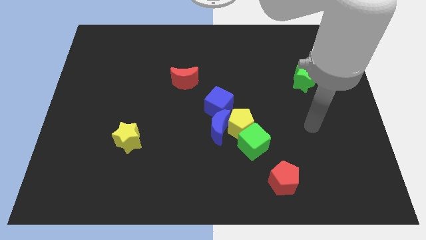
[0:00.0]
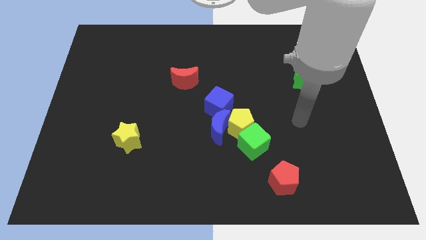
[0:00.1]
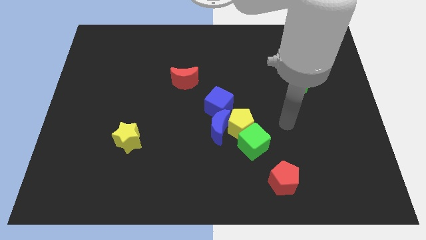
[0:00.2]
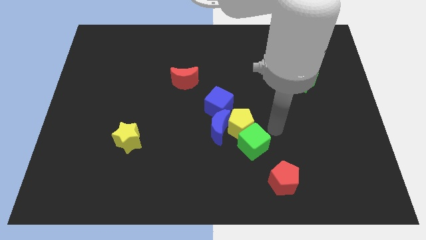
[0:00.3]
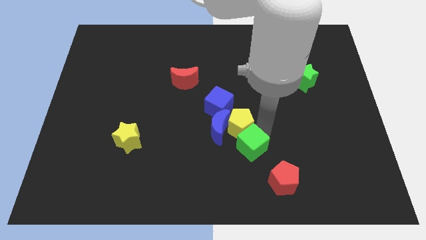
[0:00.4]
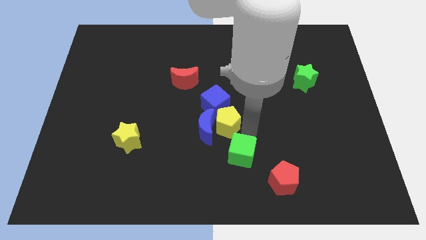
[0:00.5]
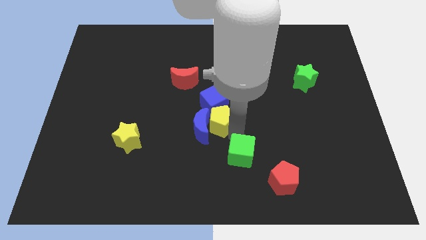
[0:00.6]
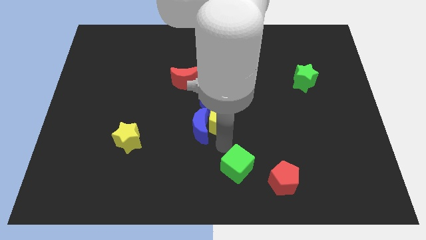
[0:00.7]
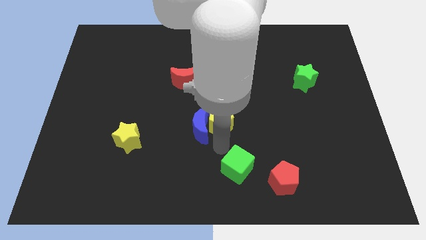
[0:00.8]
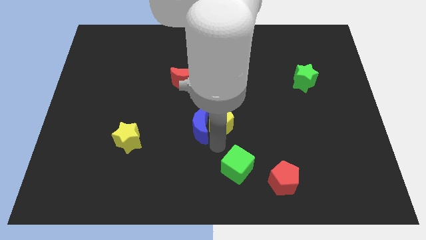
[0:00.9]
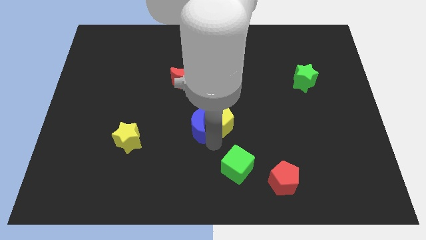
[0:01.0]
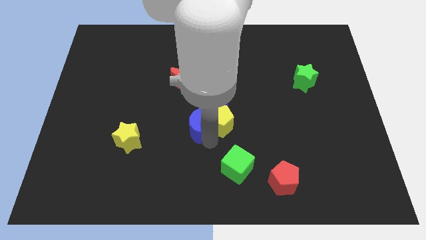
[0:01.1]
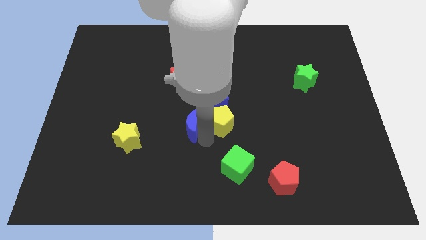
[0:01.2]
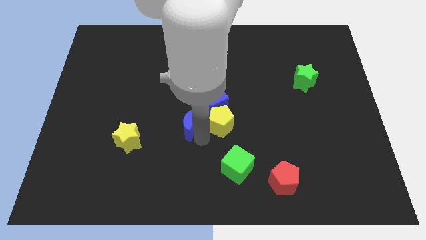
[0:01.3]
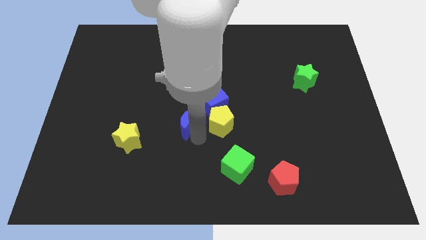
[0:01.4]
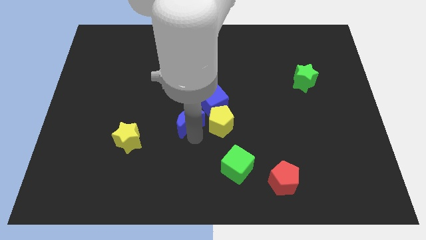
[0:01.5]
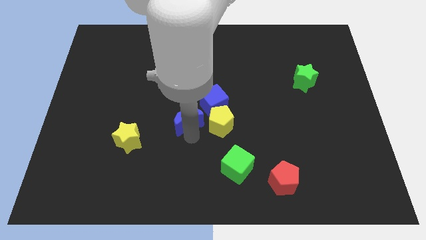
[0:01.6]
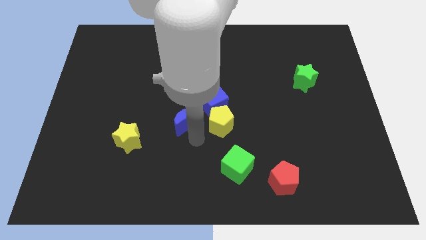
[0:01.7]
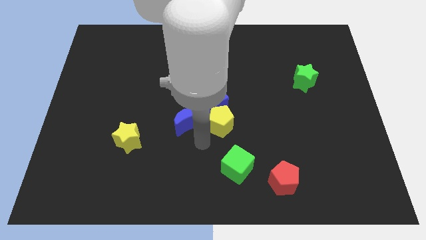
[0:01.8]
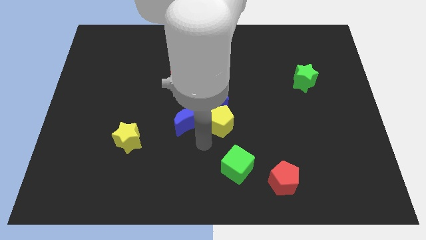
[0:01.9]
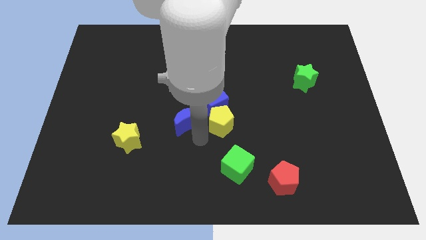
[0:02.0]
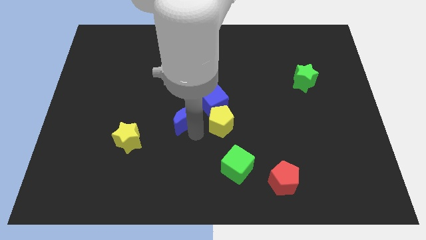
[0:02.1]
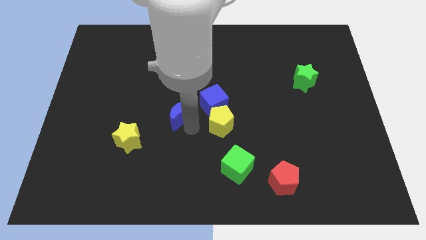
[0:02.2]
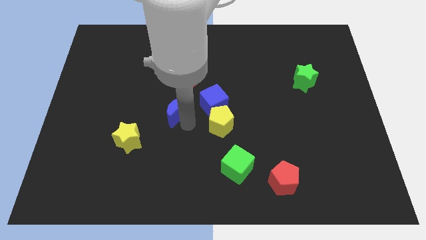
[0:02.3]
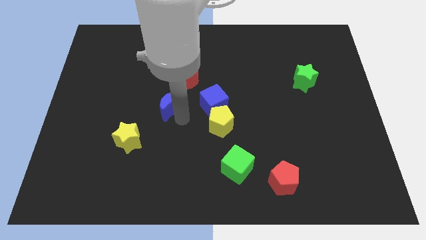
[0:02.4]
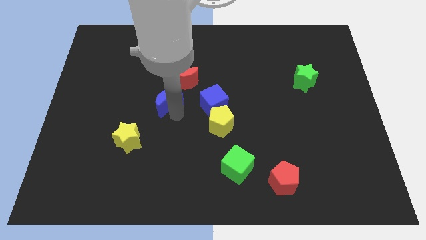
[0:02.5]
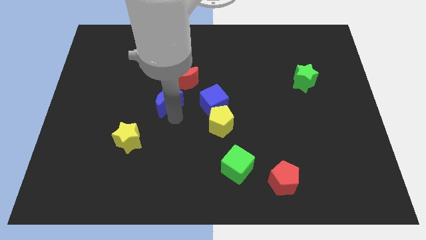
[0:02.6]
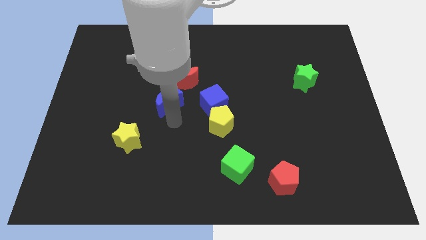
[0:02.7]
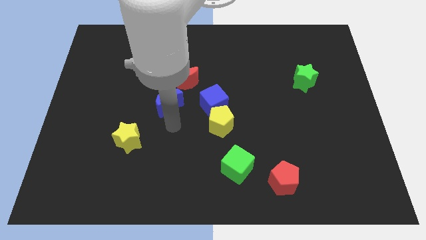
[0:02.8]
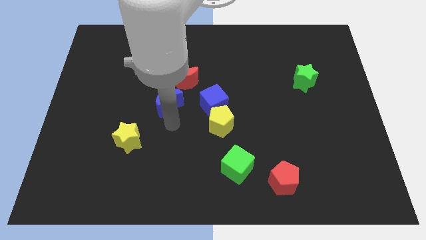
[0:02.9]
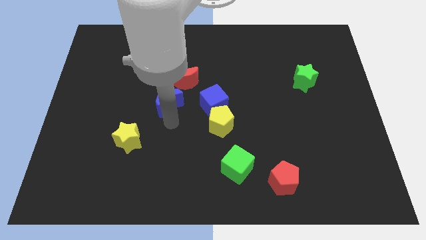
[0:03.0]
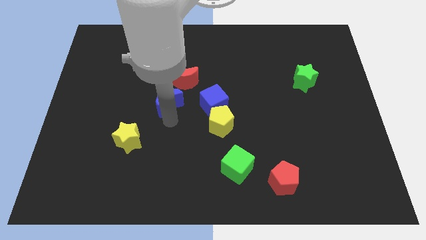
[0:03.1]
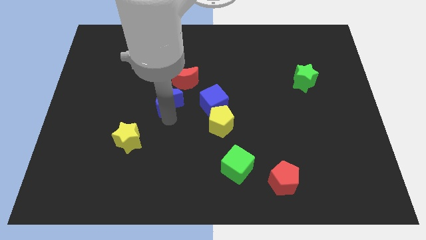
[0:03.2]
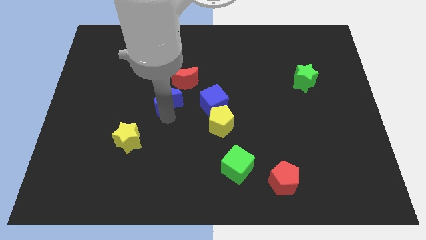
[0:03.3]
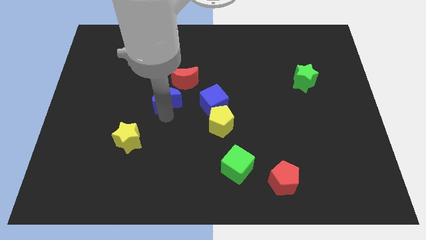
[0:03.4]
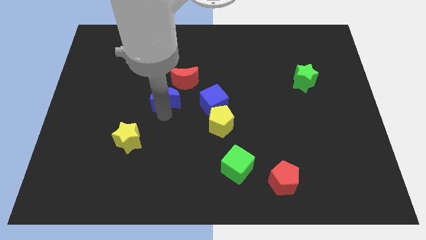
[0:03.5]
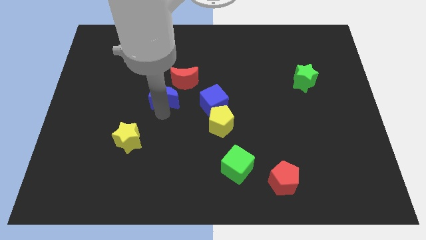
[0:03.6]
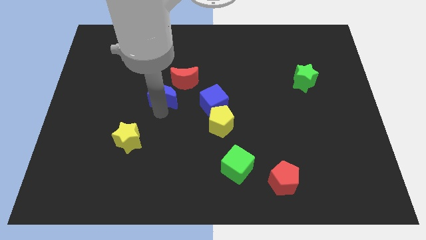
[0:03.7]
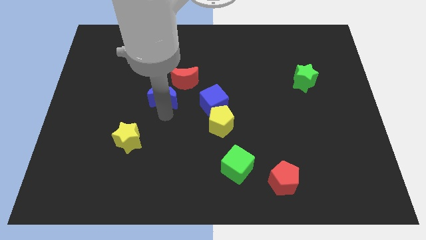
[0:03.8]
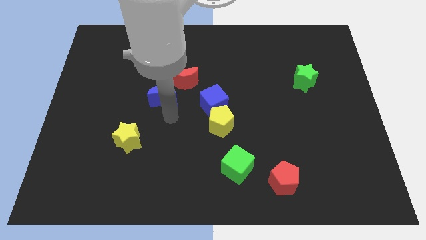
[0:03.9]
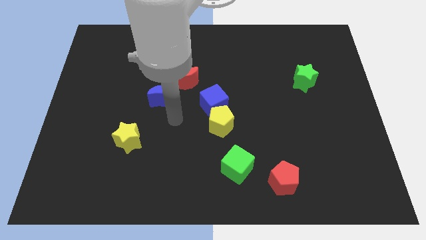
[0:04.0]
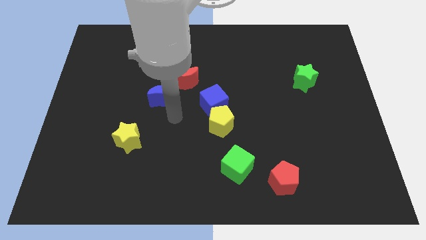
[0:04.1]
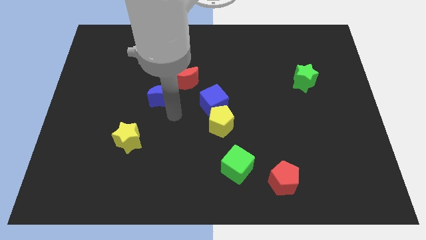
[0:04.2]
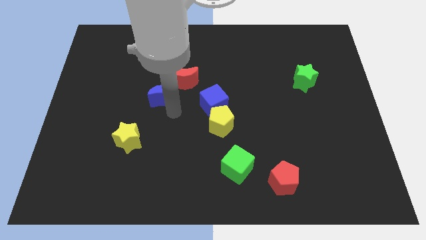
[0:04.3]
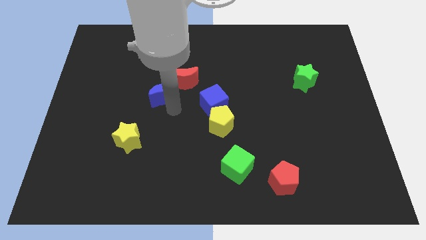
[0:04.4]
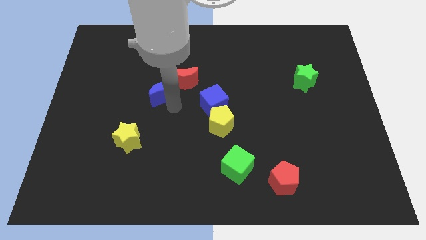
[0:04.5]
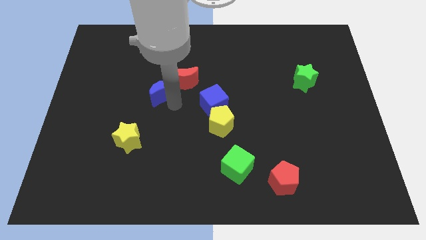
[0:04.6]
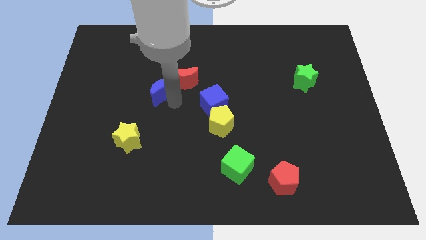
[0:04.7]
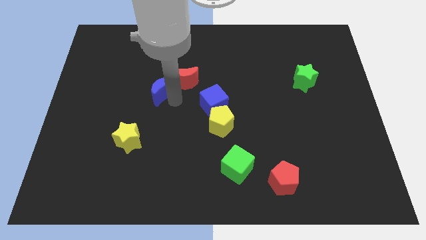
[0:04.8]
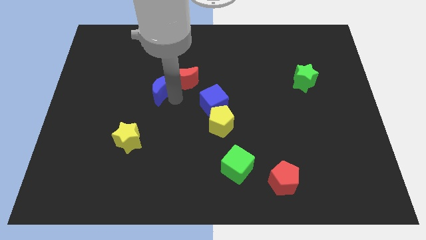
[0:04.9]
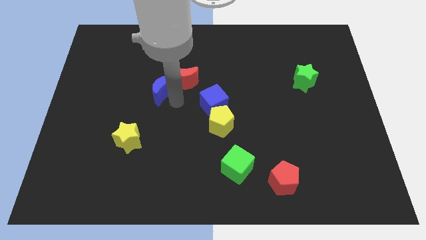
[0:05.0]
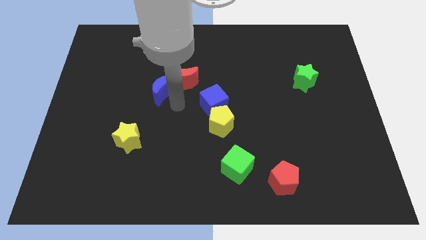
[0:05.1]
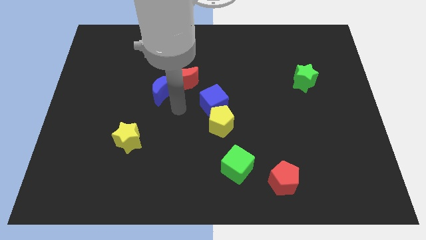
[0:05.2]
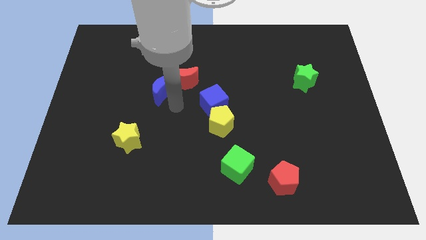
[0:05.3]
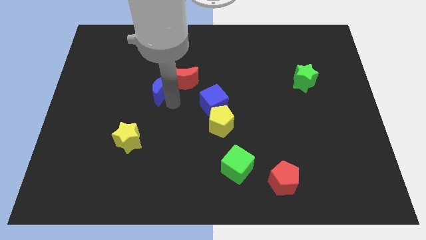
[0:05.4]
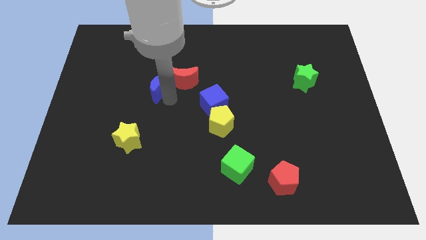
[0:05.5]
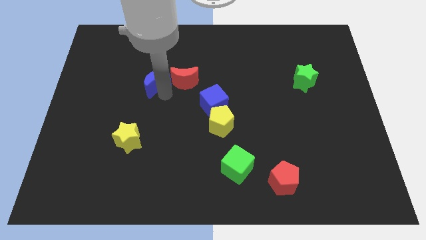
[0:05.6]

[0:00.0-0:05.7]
push the blue moon up and then left

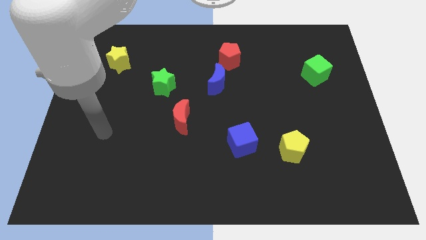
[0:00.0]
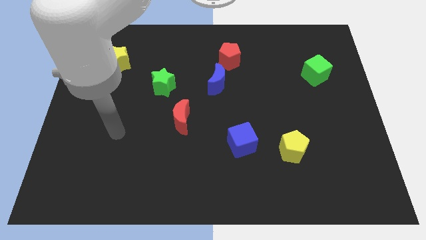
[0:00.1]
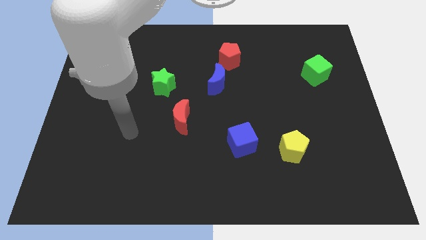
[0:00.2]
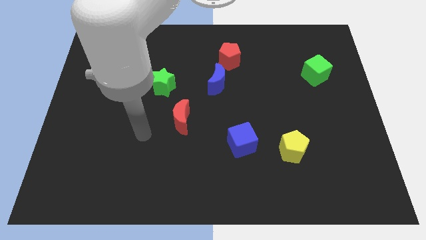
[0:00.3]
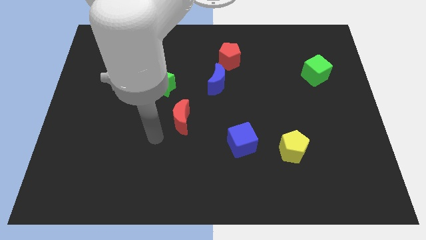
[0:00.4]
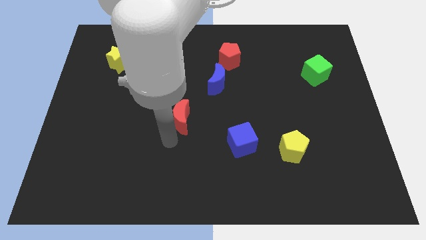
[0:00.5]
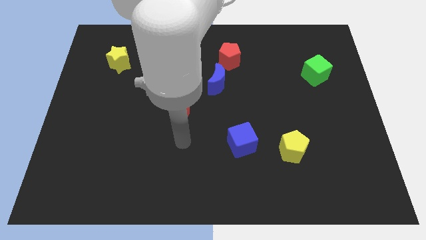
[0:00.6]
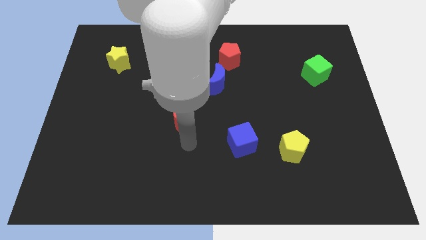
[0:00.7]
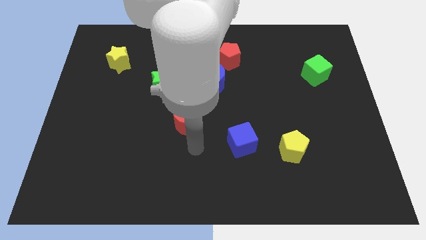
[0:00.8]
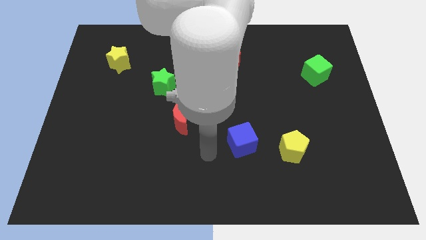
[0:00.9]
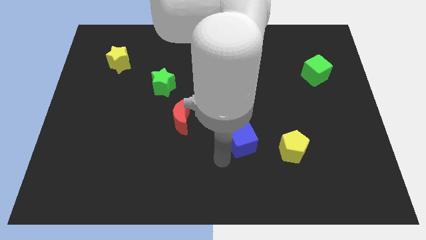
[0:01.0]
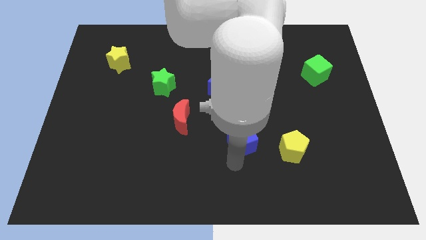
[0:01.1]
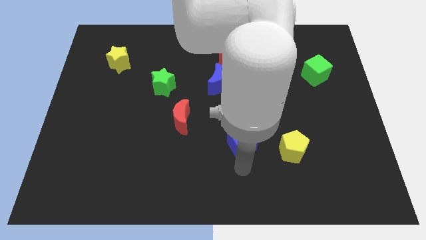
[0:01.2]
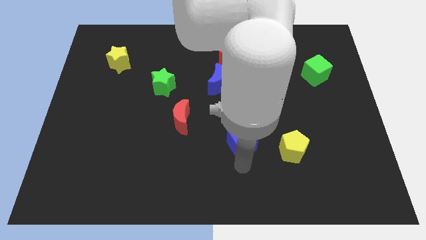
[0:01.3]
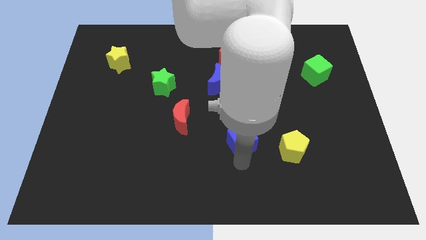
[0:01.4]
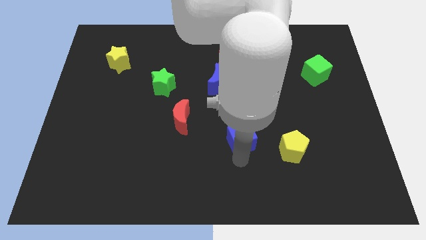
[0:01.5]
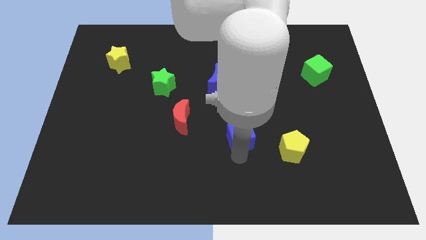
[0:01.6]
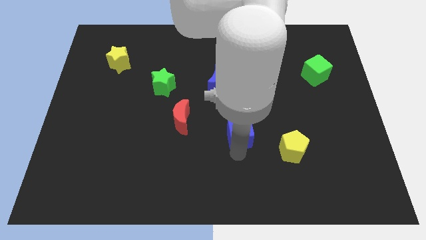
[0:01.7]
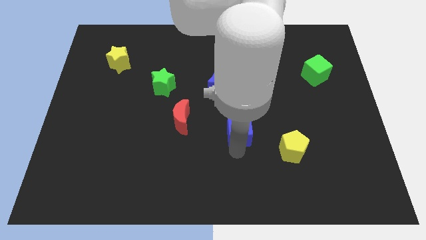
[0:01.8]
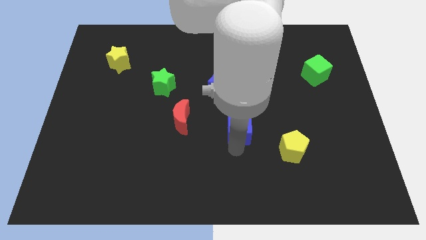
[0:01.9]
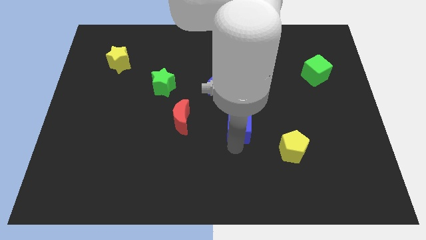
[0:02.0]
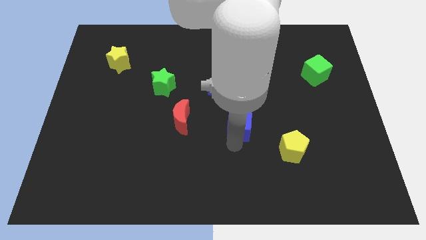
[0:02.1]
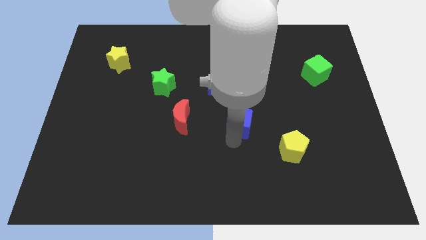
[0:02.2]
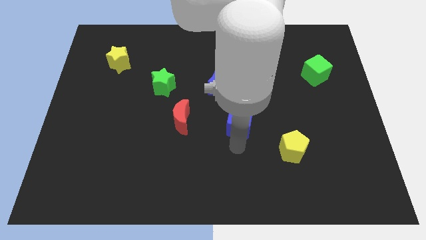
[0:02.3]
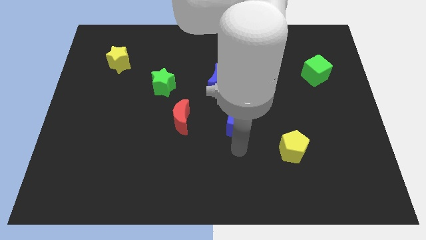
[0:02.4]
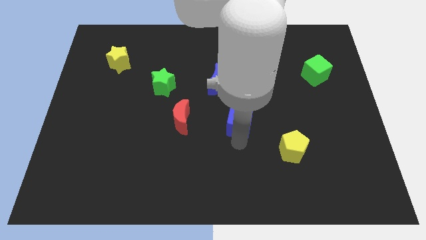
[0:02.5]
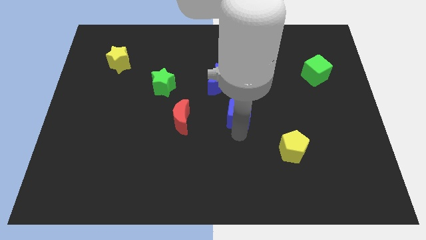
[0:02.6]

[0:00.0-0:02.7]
push the blue cube upwards a bit
